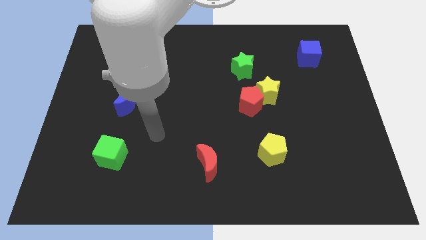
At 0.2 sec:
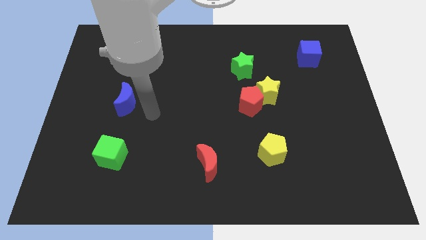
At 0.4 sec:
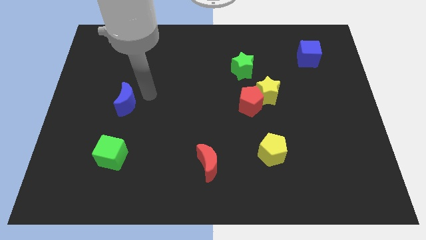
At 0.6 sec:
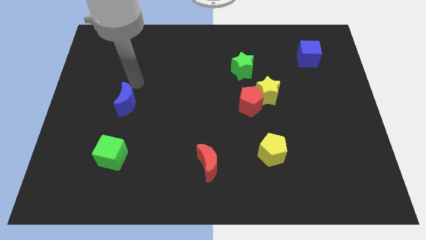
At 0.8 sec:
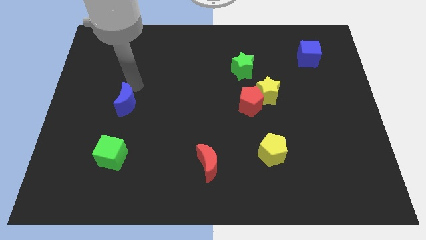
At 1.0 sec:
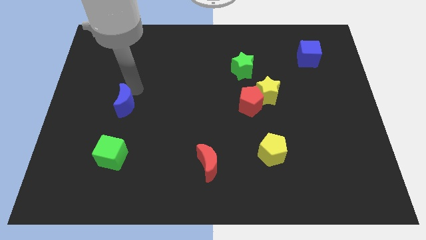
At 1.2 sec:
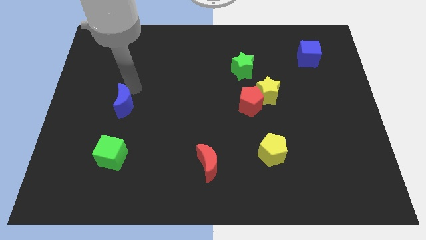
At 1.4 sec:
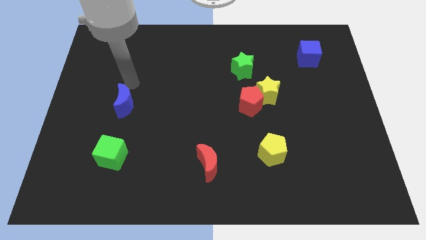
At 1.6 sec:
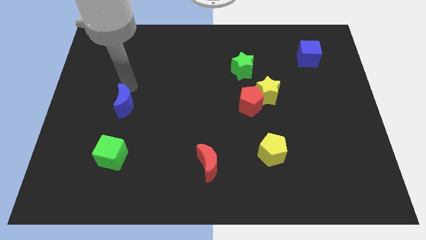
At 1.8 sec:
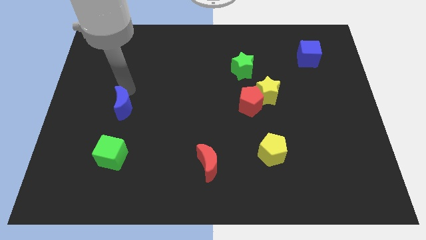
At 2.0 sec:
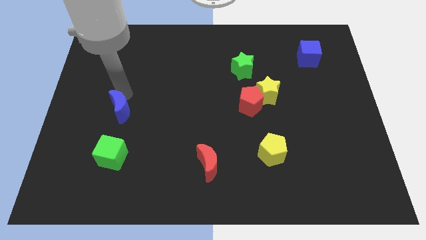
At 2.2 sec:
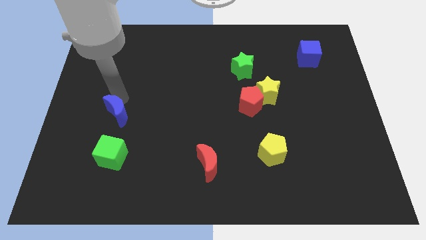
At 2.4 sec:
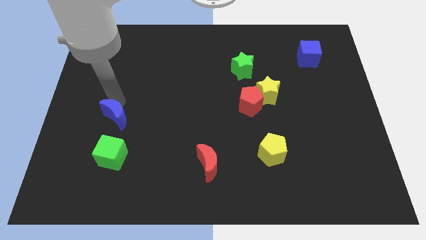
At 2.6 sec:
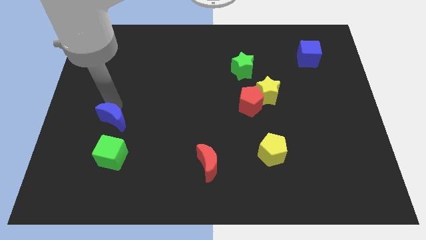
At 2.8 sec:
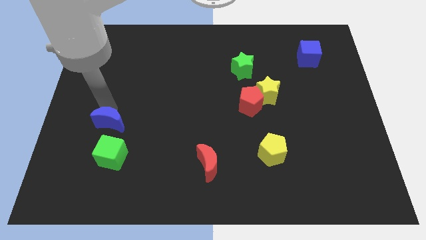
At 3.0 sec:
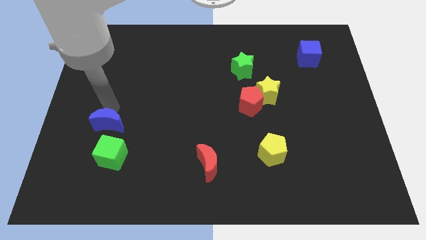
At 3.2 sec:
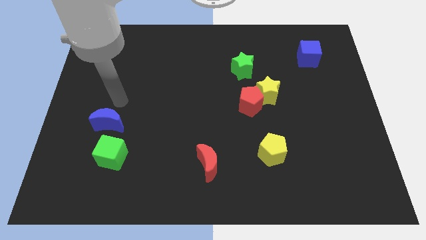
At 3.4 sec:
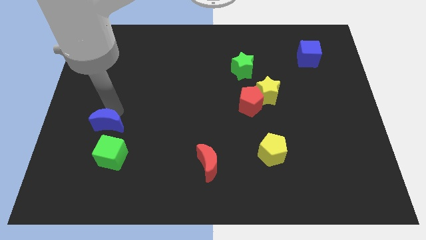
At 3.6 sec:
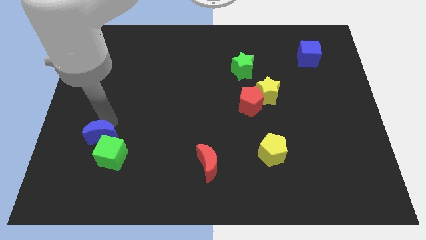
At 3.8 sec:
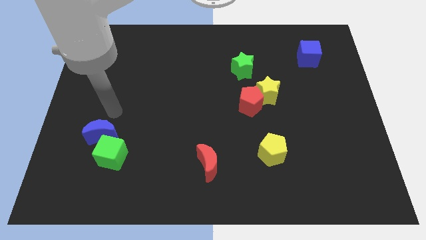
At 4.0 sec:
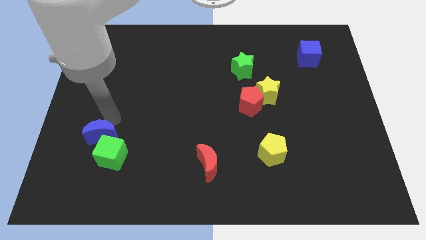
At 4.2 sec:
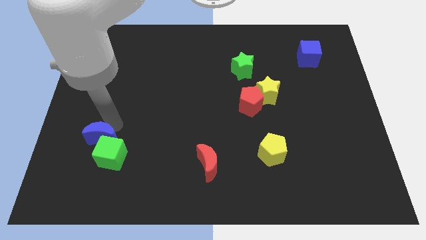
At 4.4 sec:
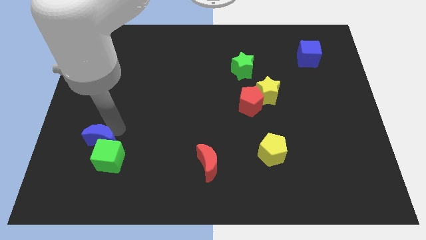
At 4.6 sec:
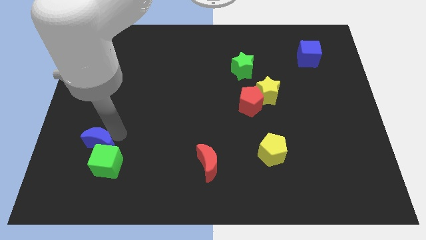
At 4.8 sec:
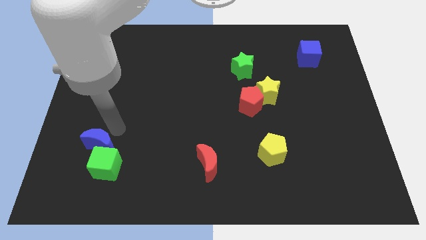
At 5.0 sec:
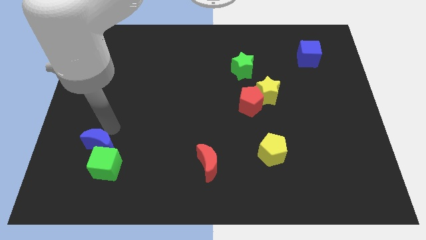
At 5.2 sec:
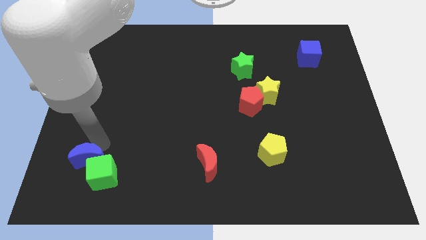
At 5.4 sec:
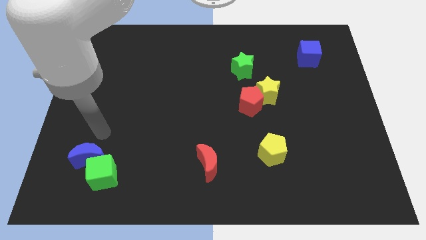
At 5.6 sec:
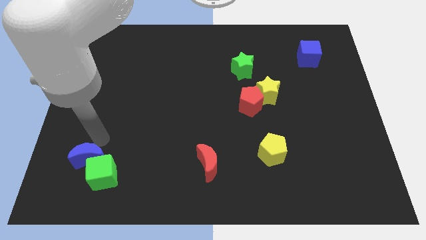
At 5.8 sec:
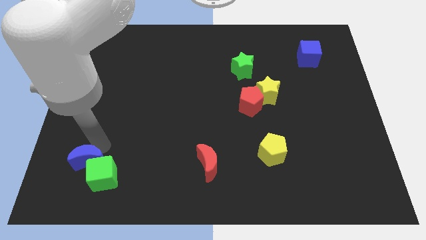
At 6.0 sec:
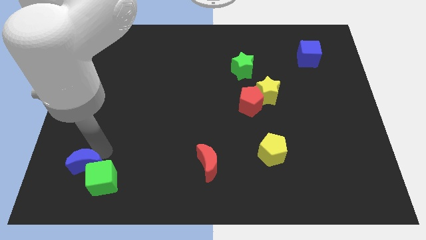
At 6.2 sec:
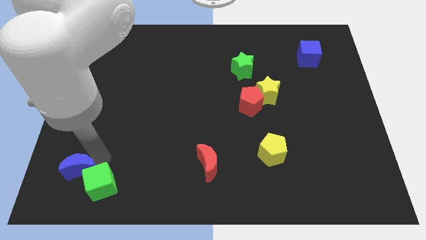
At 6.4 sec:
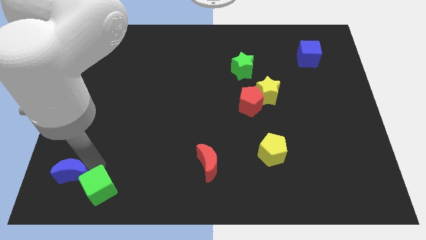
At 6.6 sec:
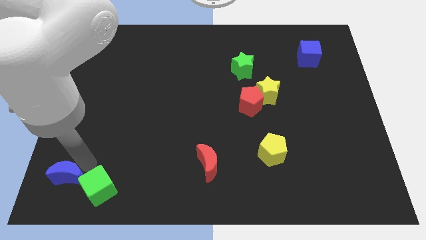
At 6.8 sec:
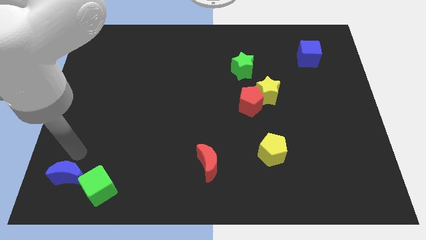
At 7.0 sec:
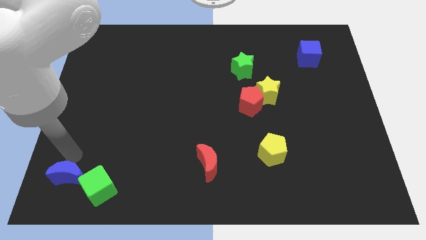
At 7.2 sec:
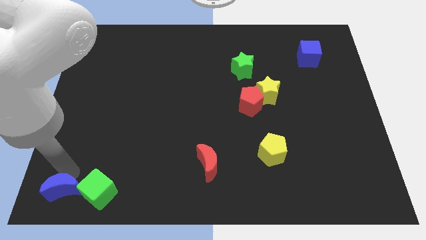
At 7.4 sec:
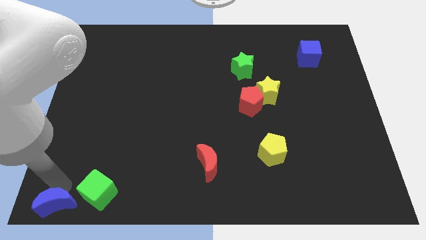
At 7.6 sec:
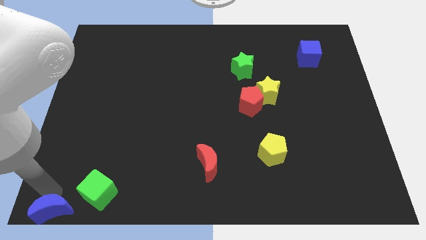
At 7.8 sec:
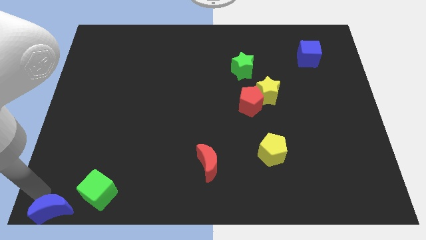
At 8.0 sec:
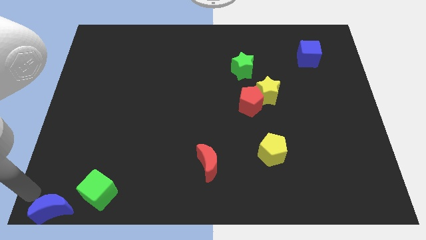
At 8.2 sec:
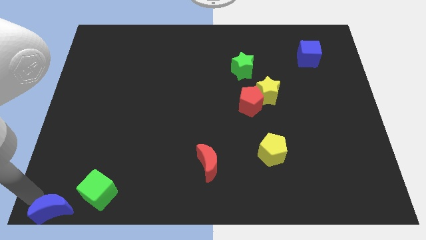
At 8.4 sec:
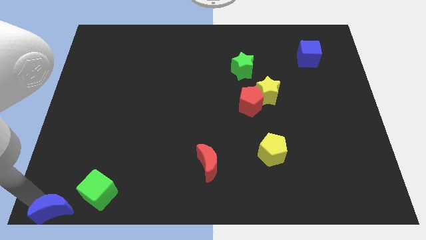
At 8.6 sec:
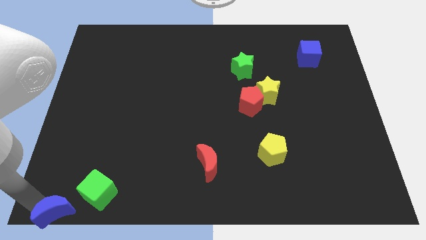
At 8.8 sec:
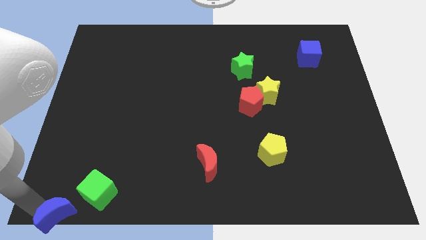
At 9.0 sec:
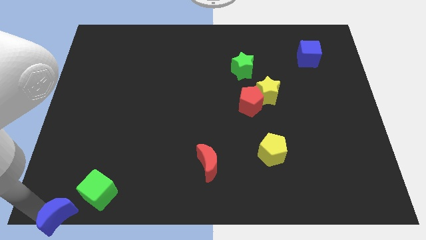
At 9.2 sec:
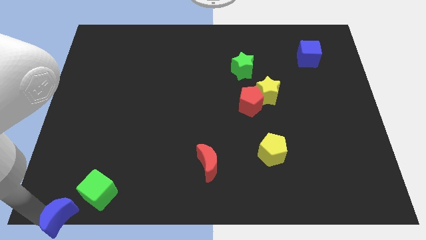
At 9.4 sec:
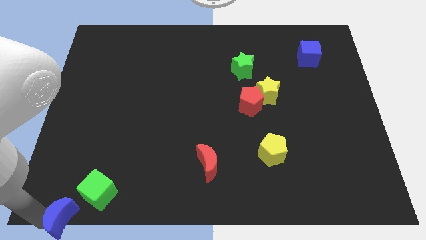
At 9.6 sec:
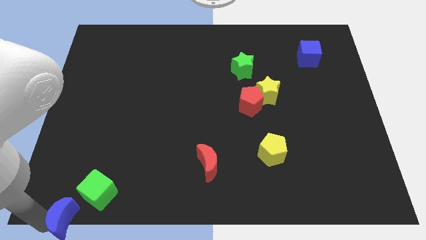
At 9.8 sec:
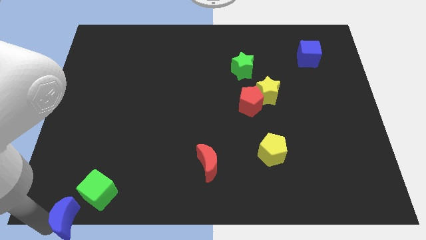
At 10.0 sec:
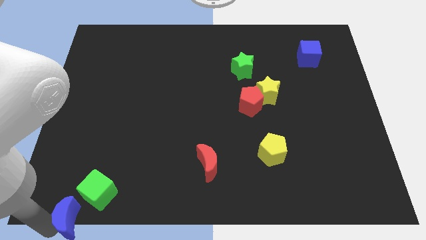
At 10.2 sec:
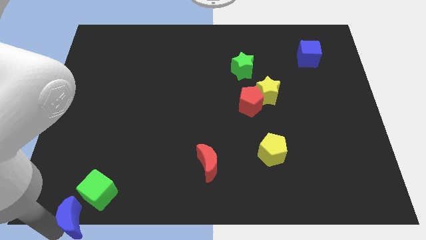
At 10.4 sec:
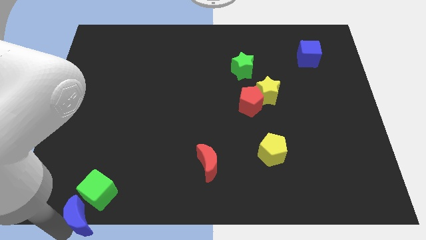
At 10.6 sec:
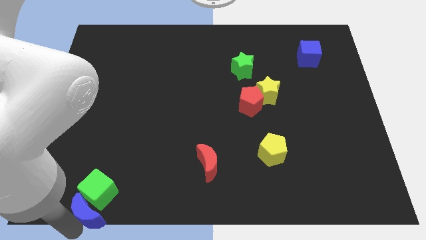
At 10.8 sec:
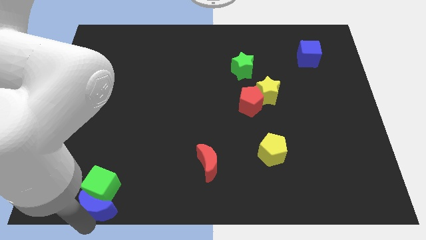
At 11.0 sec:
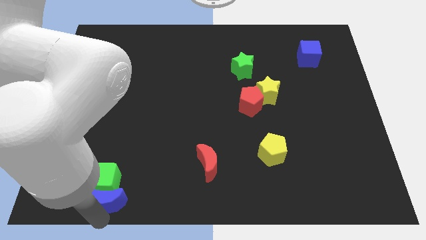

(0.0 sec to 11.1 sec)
slide the blue moon to the bottom left of the green cube

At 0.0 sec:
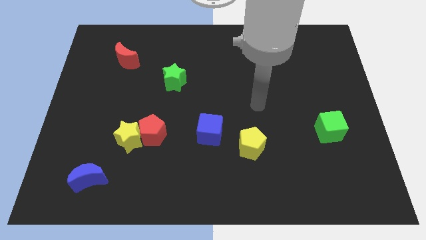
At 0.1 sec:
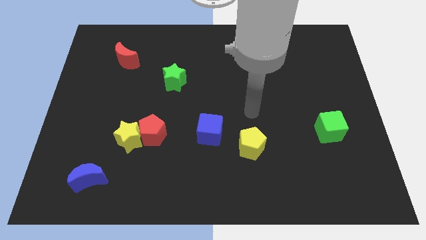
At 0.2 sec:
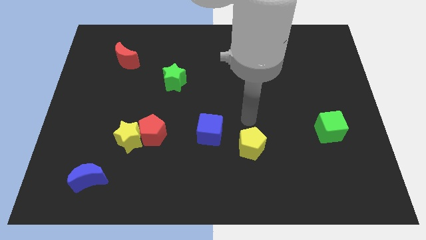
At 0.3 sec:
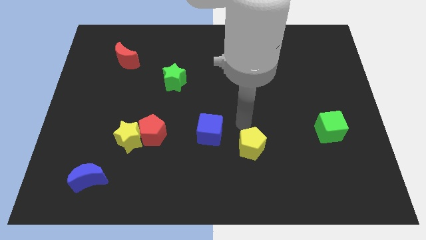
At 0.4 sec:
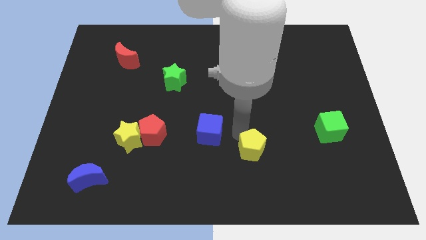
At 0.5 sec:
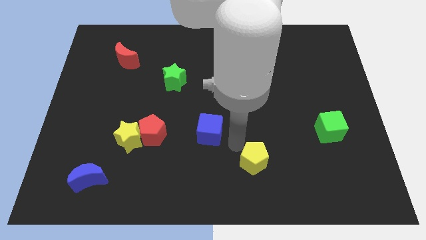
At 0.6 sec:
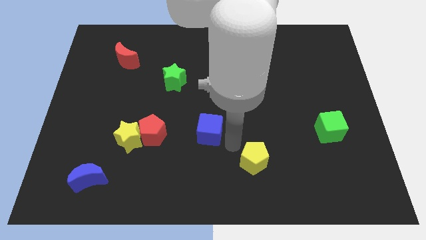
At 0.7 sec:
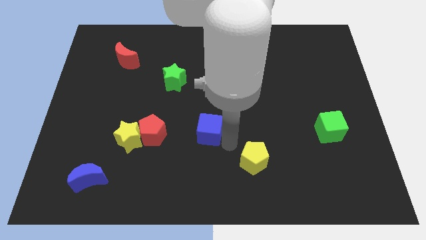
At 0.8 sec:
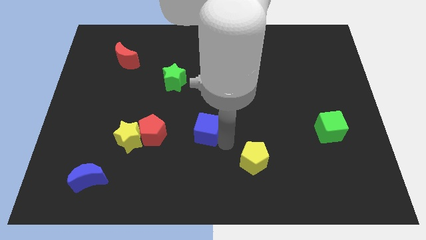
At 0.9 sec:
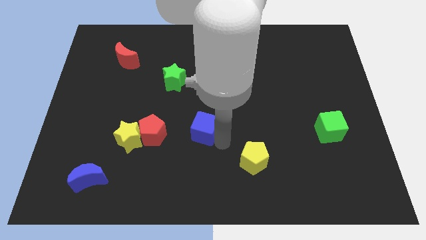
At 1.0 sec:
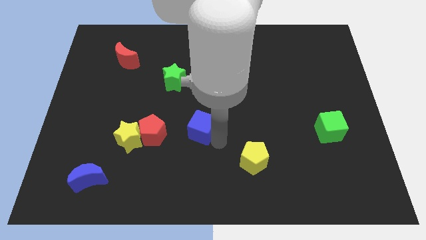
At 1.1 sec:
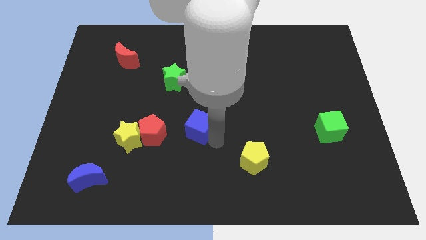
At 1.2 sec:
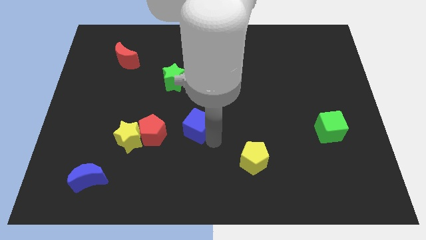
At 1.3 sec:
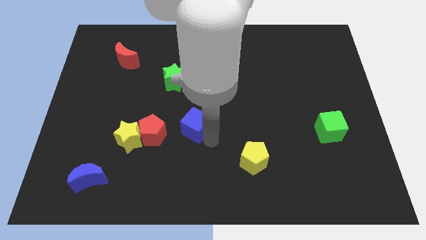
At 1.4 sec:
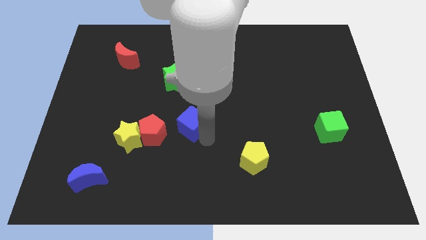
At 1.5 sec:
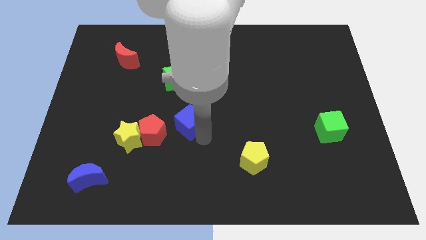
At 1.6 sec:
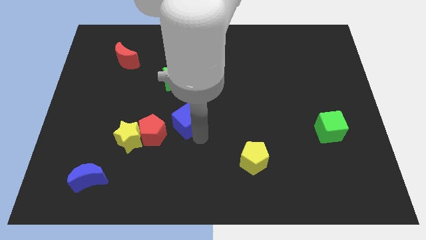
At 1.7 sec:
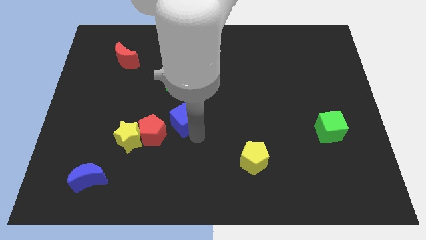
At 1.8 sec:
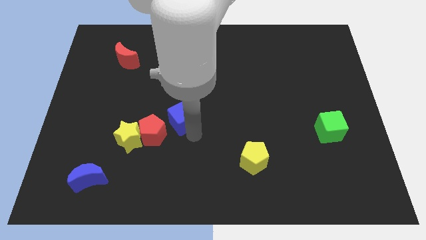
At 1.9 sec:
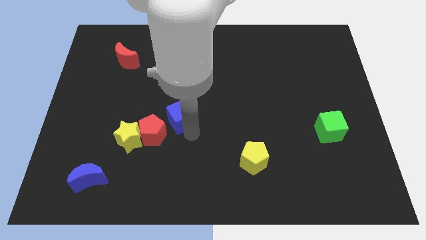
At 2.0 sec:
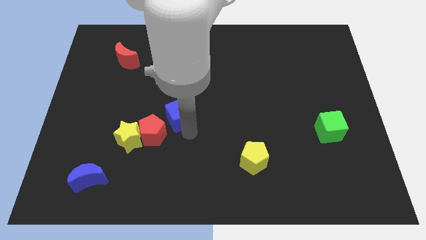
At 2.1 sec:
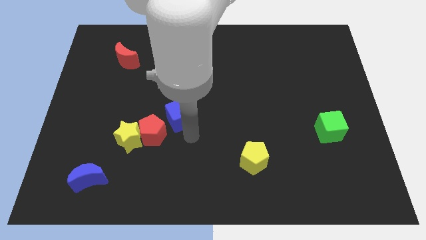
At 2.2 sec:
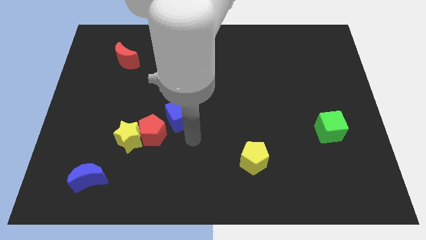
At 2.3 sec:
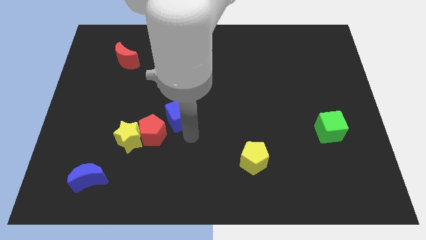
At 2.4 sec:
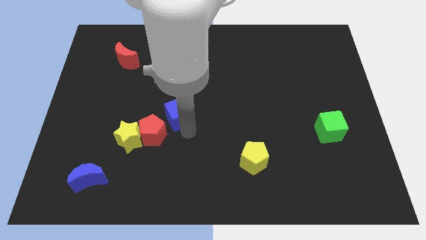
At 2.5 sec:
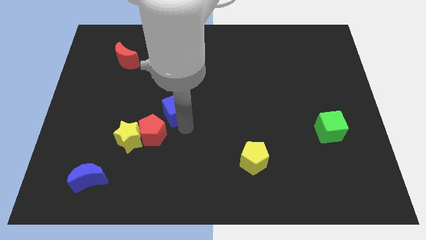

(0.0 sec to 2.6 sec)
move the blue cube above the red pentagon
